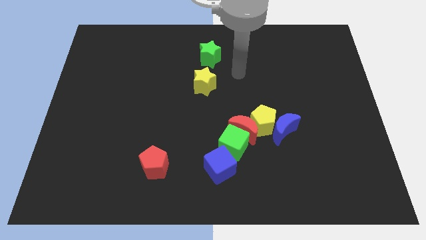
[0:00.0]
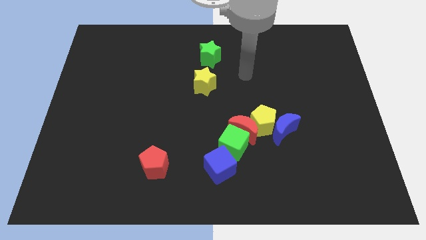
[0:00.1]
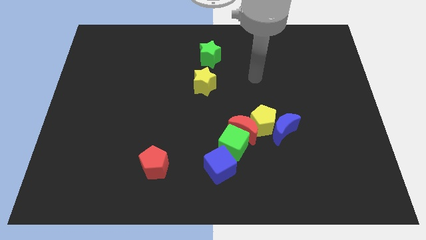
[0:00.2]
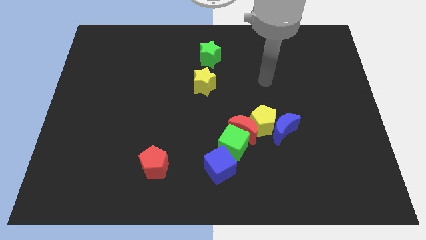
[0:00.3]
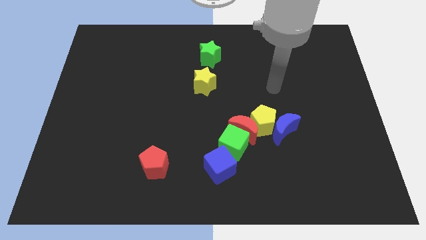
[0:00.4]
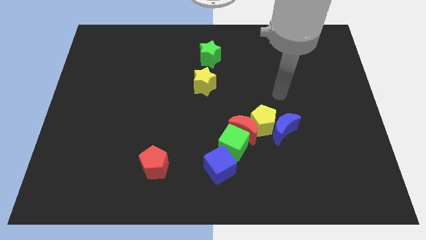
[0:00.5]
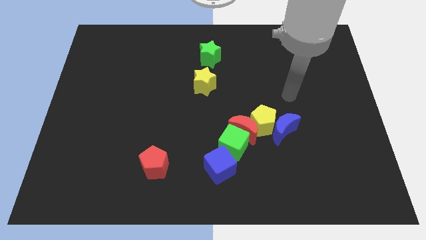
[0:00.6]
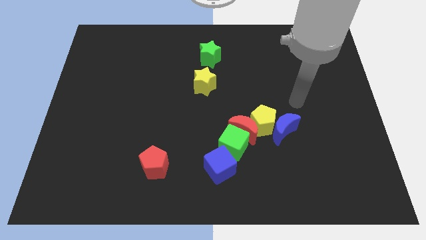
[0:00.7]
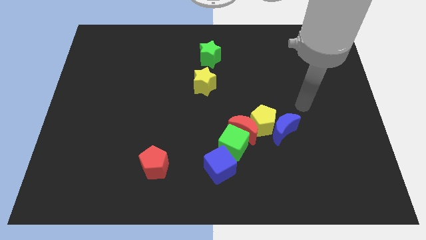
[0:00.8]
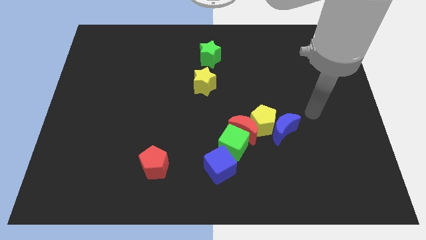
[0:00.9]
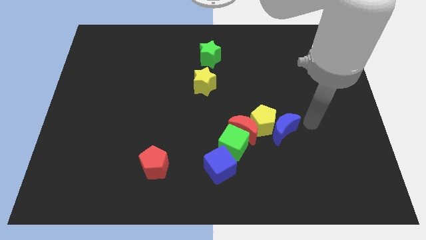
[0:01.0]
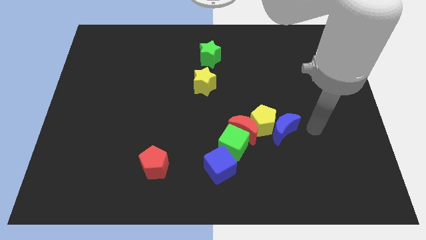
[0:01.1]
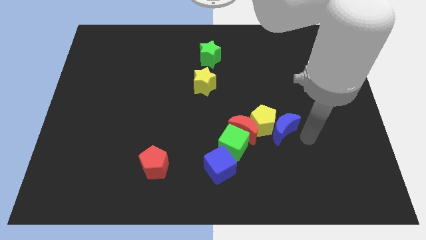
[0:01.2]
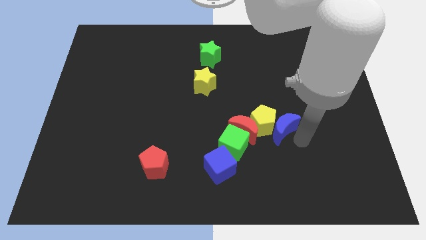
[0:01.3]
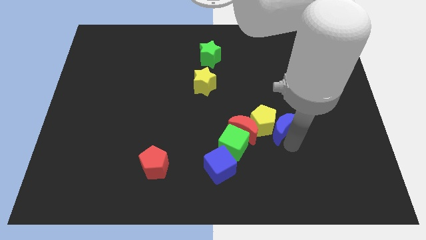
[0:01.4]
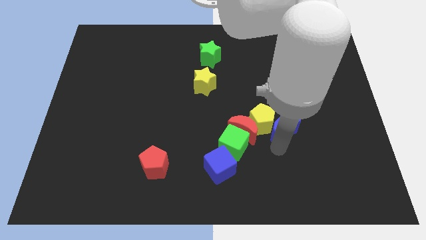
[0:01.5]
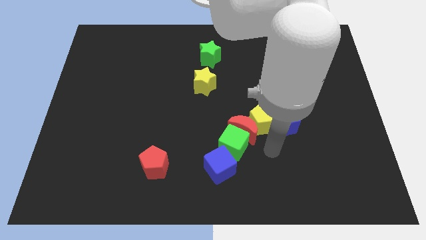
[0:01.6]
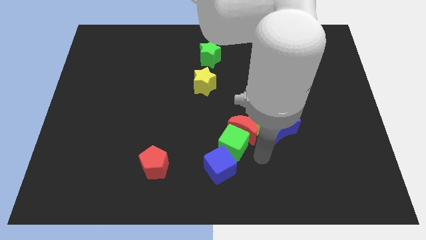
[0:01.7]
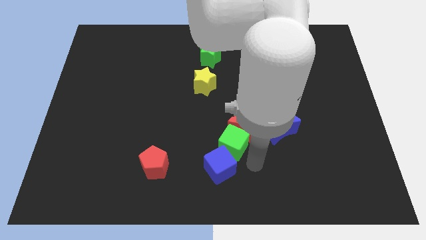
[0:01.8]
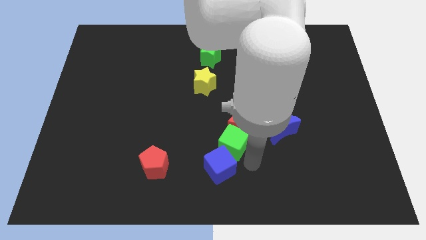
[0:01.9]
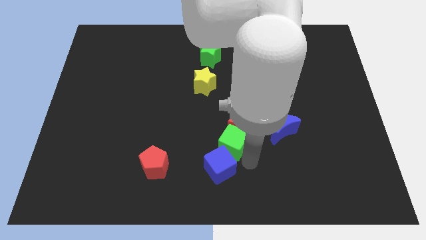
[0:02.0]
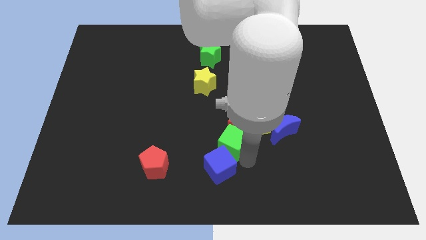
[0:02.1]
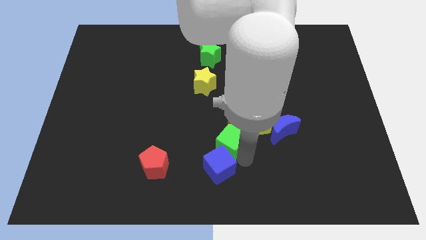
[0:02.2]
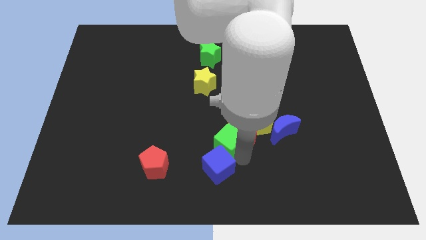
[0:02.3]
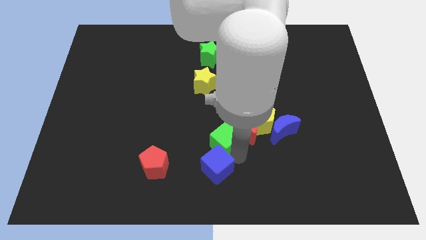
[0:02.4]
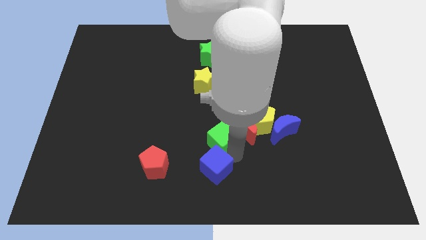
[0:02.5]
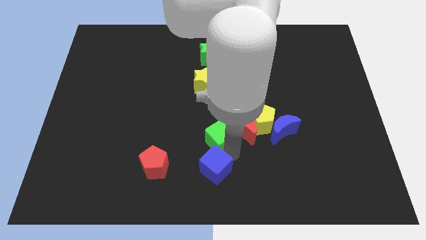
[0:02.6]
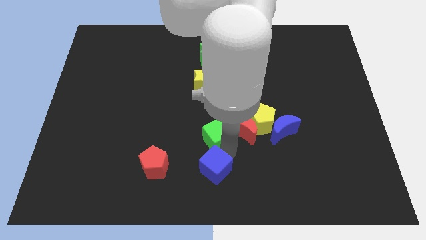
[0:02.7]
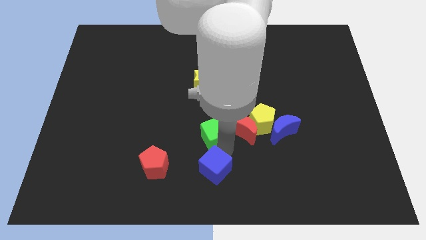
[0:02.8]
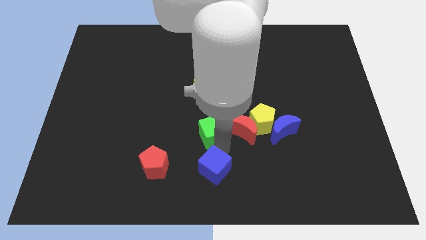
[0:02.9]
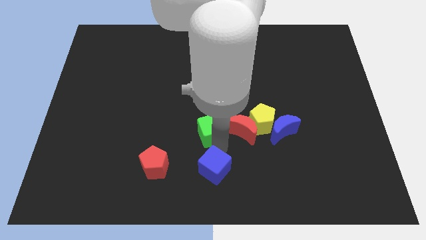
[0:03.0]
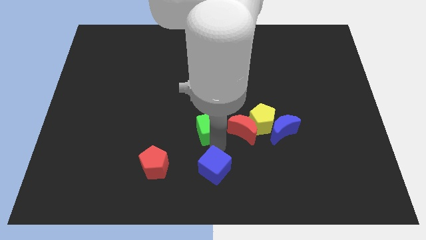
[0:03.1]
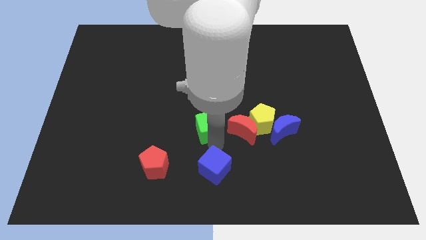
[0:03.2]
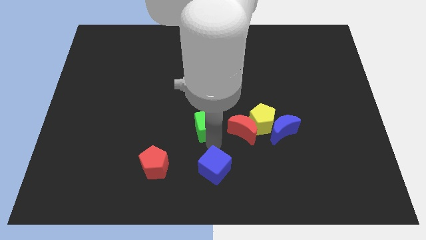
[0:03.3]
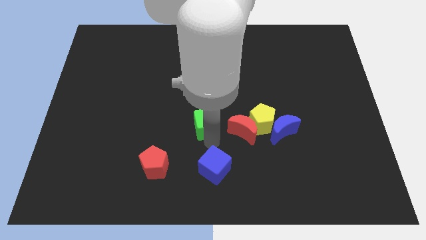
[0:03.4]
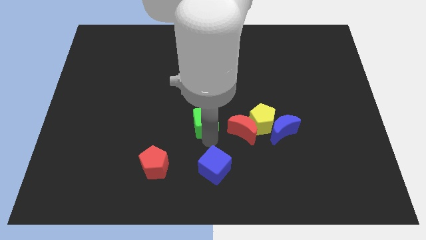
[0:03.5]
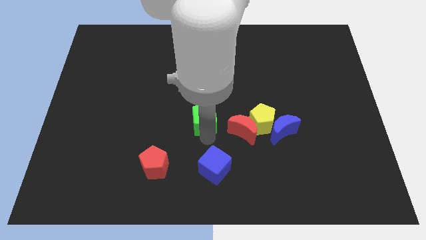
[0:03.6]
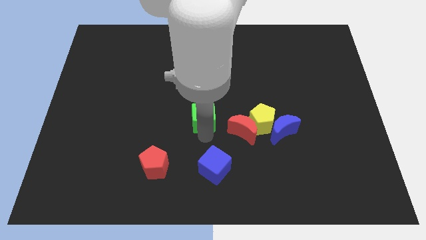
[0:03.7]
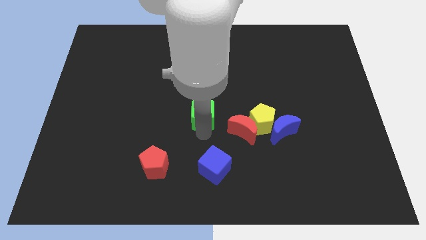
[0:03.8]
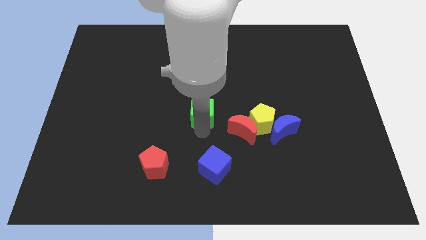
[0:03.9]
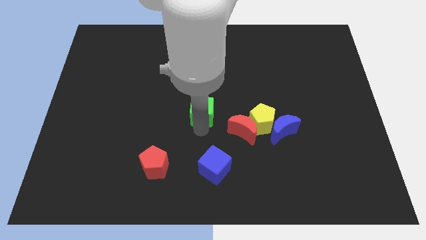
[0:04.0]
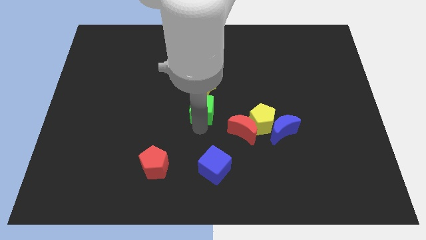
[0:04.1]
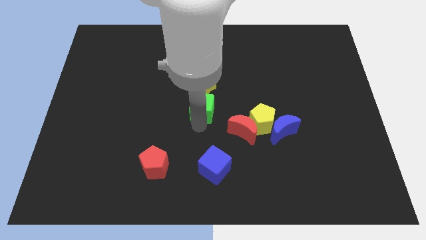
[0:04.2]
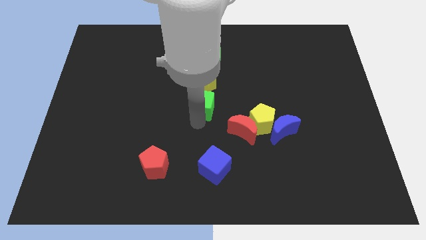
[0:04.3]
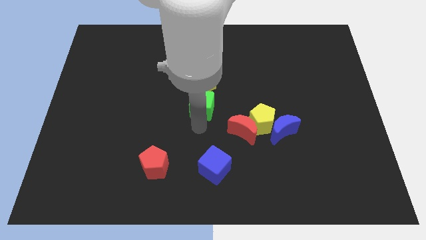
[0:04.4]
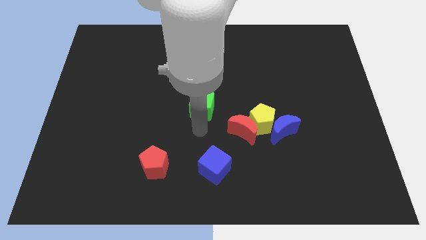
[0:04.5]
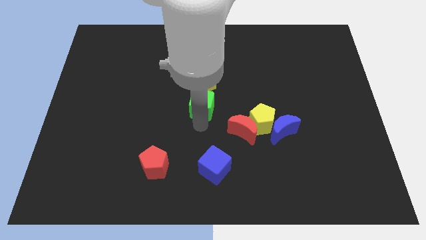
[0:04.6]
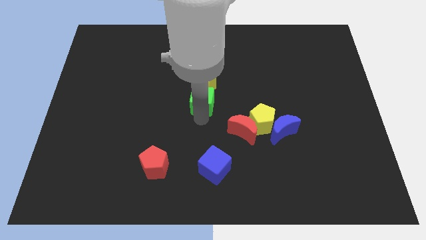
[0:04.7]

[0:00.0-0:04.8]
put the green cube towards the yellow star

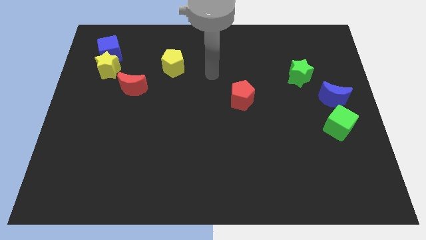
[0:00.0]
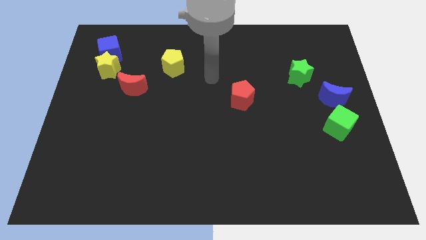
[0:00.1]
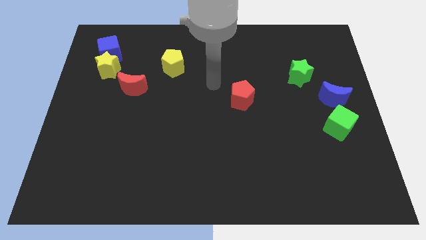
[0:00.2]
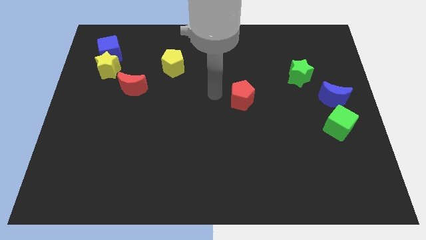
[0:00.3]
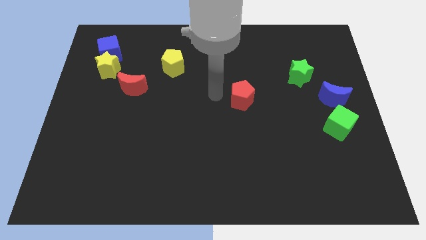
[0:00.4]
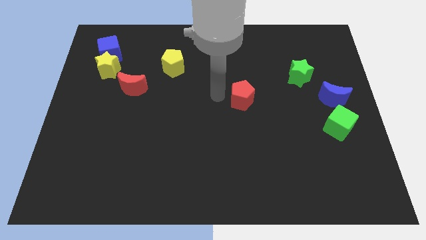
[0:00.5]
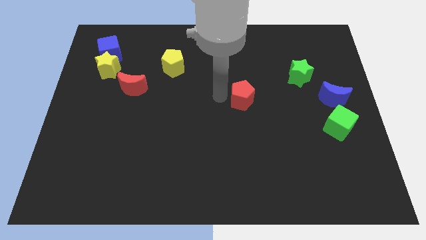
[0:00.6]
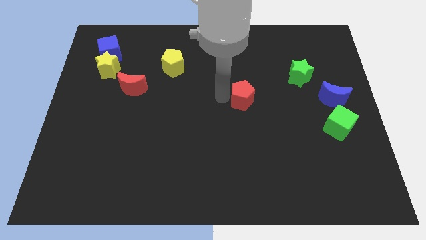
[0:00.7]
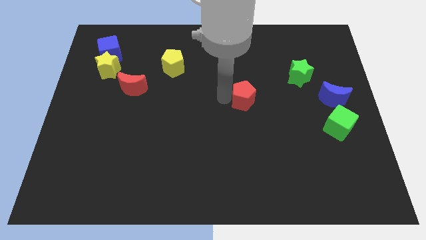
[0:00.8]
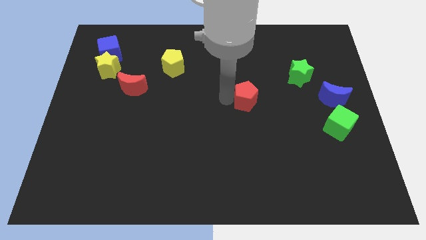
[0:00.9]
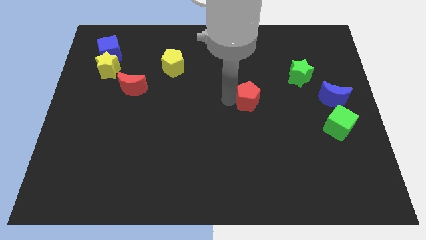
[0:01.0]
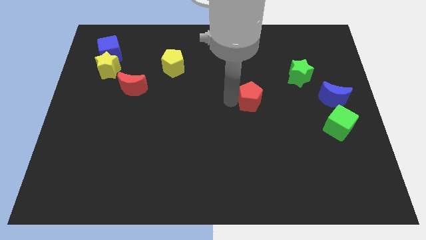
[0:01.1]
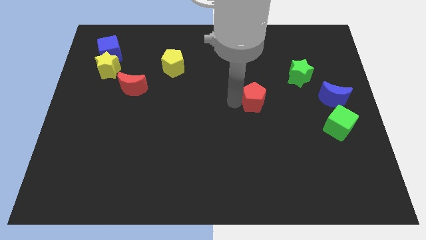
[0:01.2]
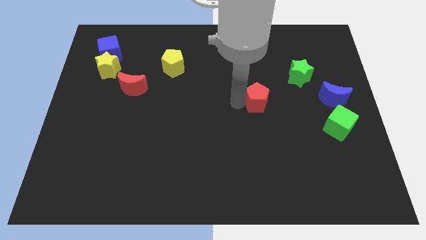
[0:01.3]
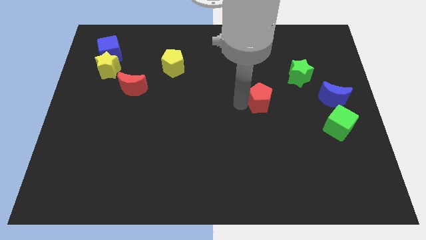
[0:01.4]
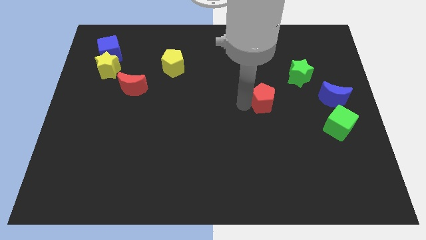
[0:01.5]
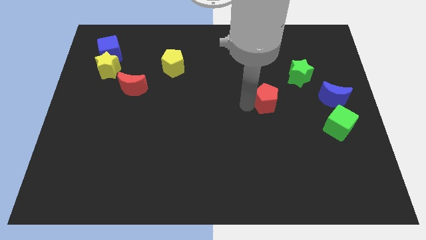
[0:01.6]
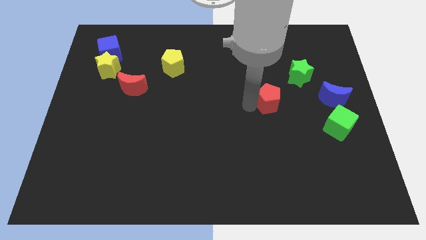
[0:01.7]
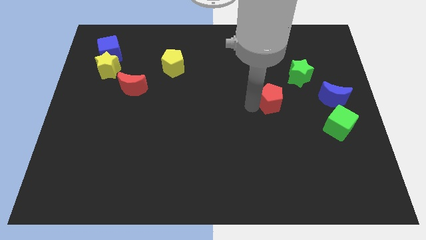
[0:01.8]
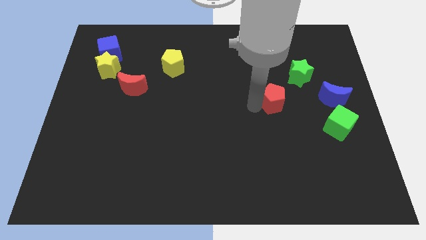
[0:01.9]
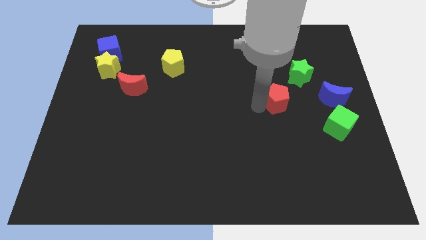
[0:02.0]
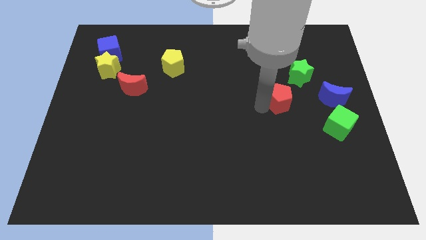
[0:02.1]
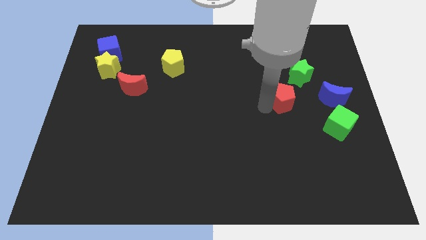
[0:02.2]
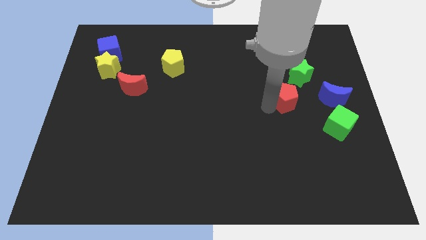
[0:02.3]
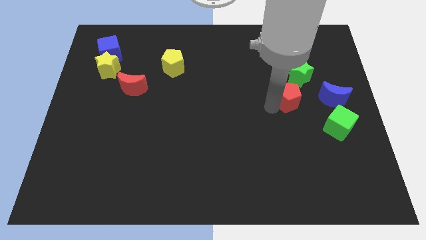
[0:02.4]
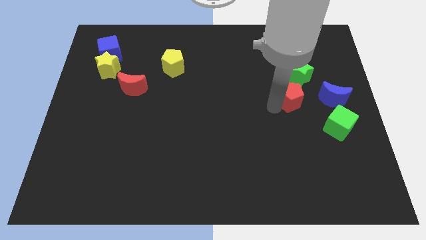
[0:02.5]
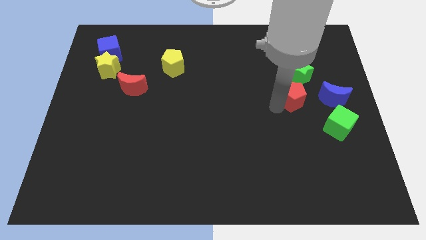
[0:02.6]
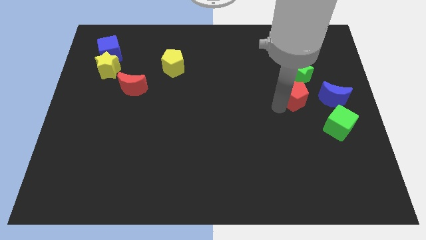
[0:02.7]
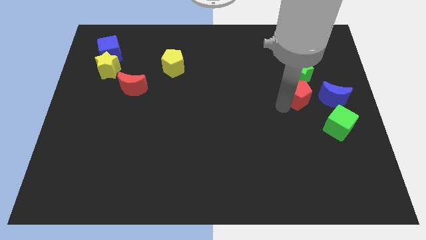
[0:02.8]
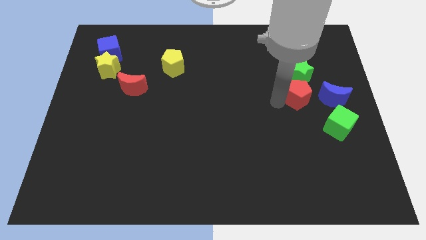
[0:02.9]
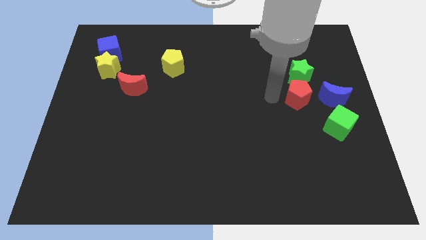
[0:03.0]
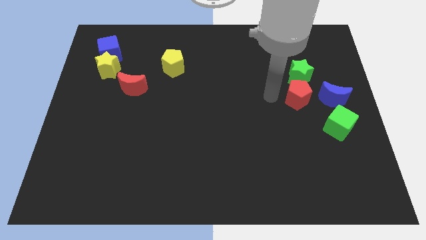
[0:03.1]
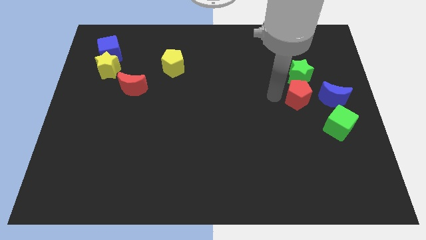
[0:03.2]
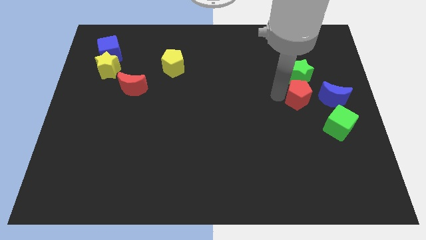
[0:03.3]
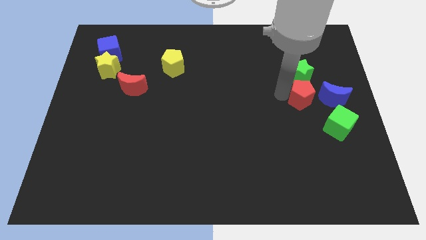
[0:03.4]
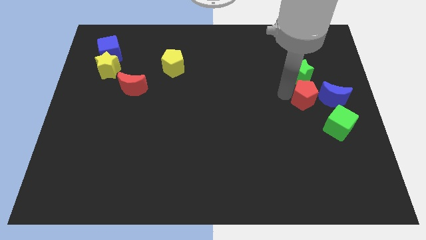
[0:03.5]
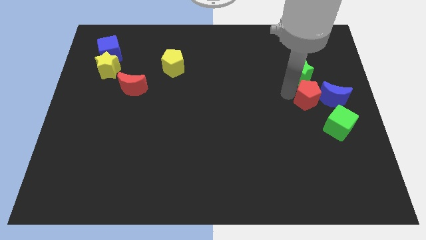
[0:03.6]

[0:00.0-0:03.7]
push the red pentagon towards the blue moon
